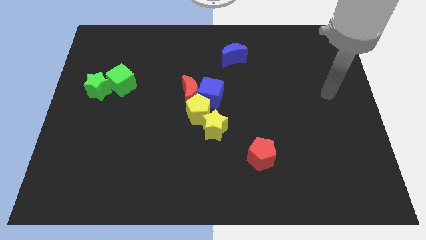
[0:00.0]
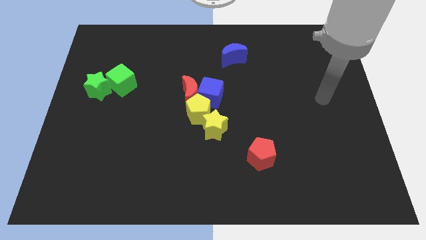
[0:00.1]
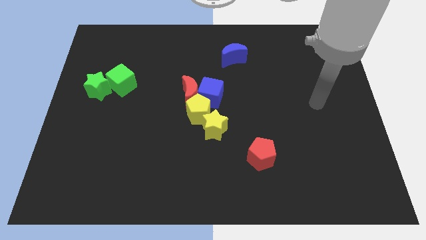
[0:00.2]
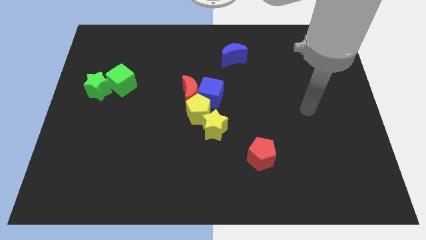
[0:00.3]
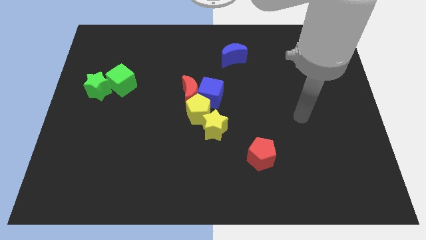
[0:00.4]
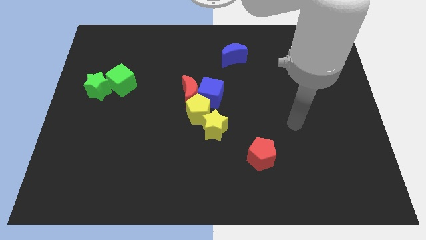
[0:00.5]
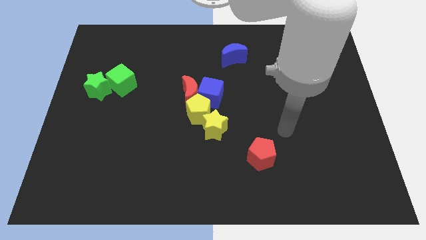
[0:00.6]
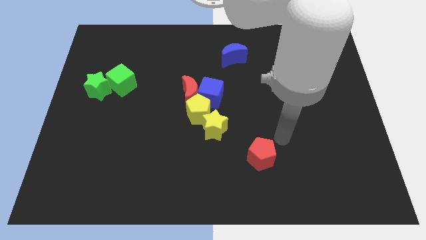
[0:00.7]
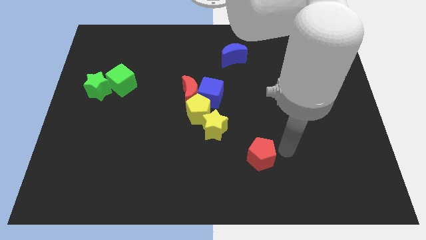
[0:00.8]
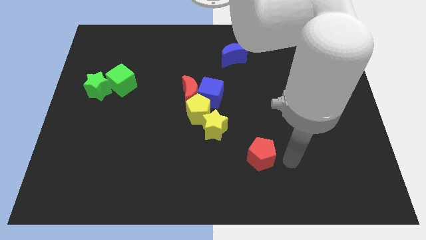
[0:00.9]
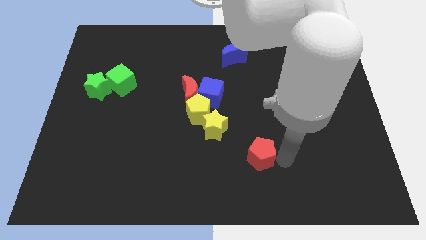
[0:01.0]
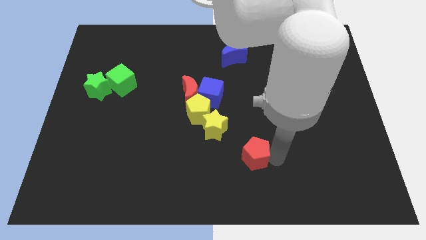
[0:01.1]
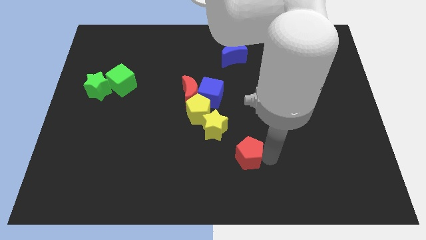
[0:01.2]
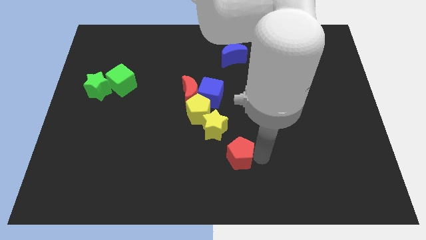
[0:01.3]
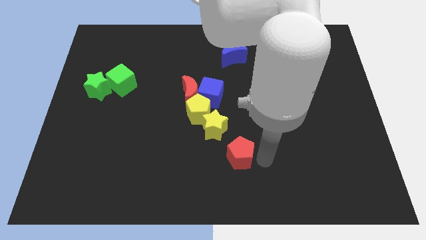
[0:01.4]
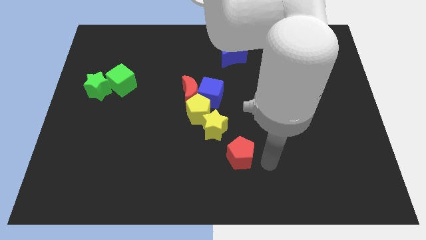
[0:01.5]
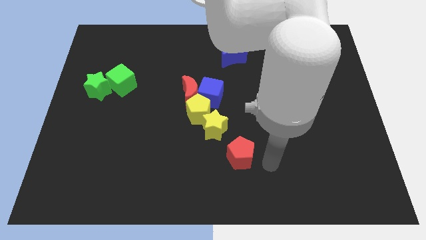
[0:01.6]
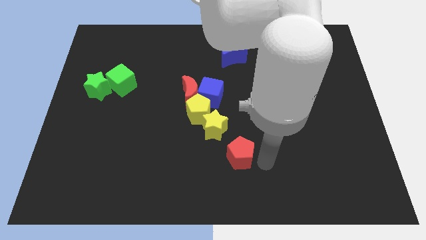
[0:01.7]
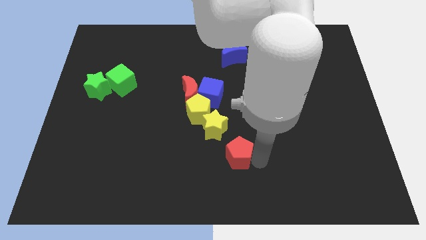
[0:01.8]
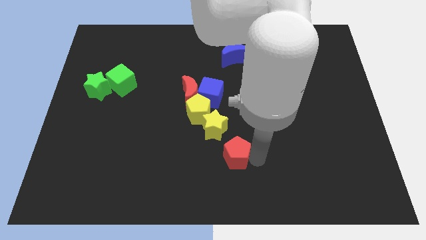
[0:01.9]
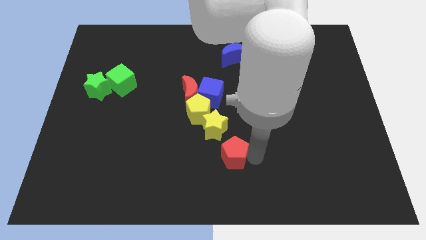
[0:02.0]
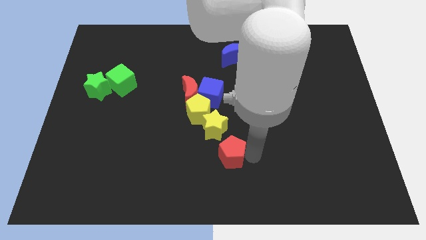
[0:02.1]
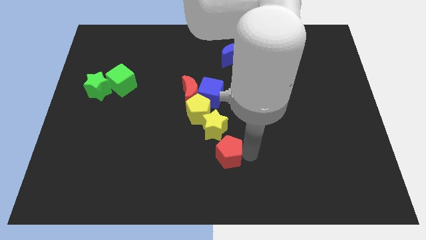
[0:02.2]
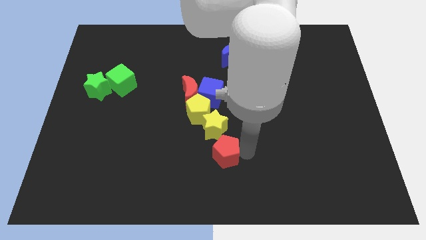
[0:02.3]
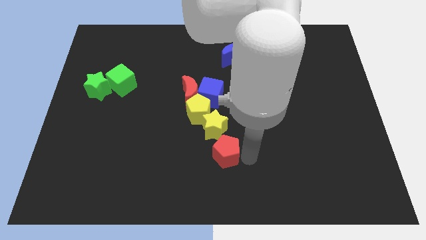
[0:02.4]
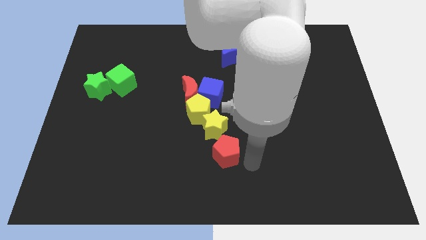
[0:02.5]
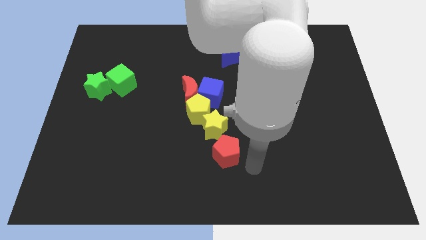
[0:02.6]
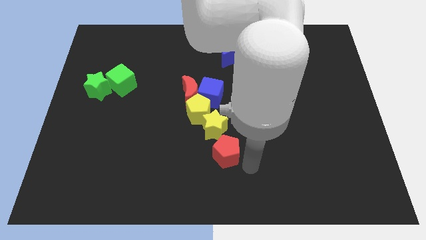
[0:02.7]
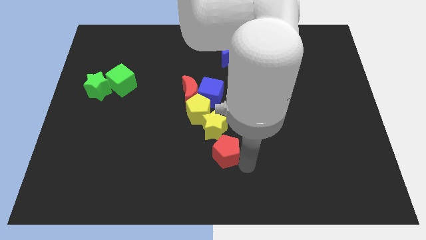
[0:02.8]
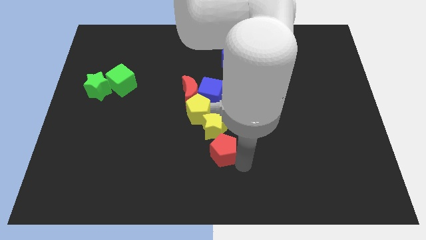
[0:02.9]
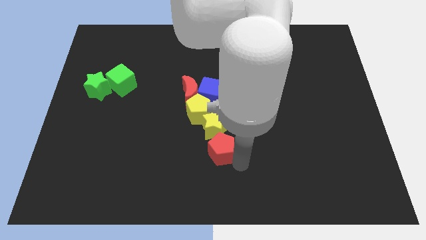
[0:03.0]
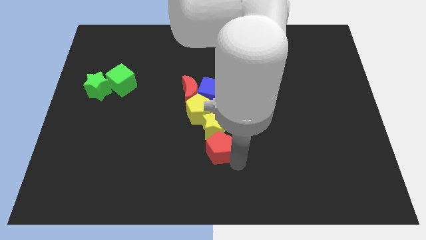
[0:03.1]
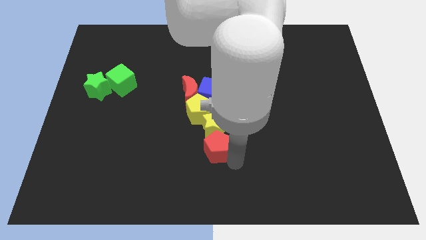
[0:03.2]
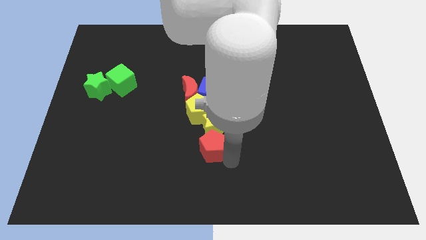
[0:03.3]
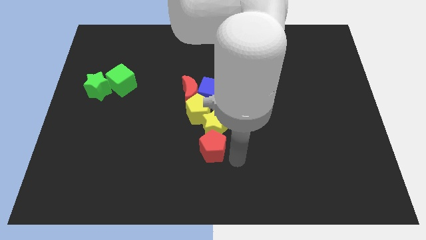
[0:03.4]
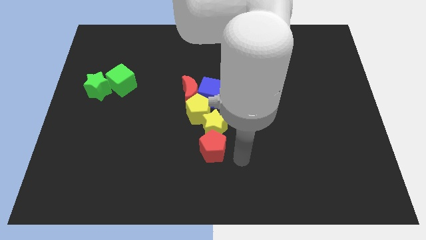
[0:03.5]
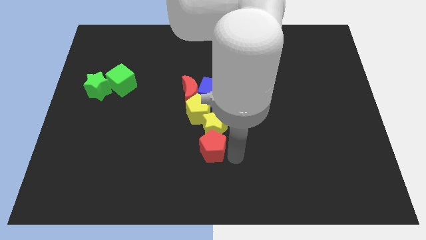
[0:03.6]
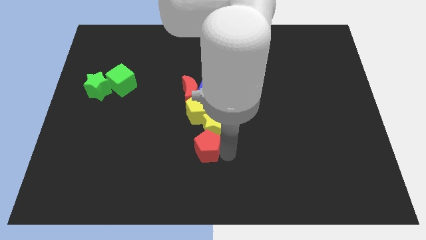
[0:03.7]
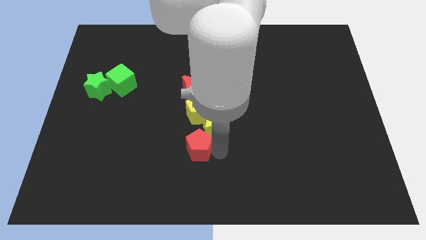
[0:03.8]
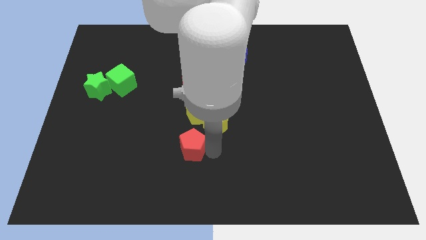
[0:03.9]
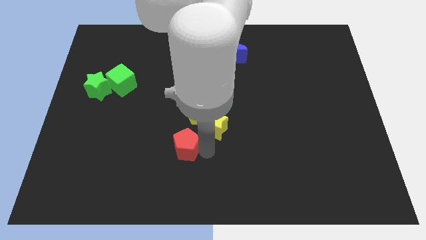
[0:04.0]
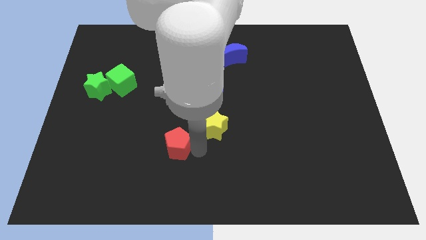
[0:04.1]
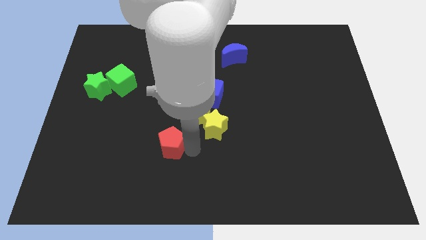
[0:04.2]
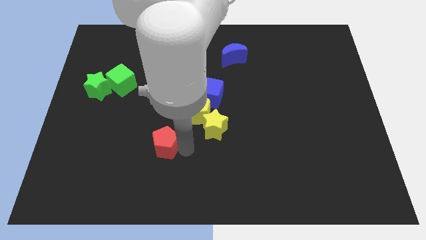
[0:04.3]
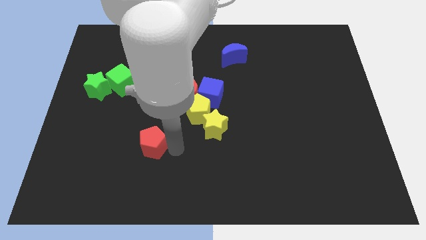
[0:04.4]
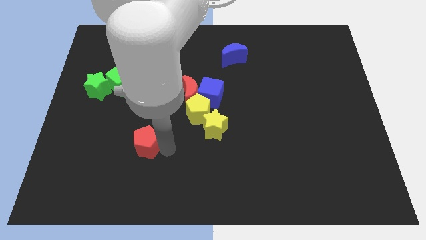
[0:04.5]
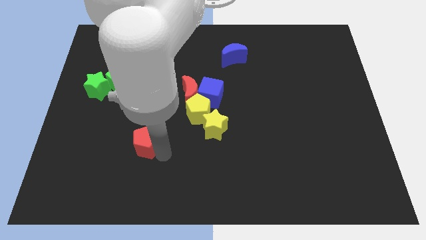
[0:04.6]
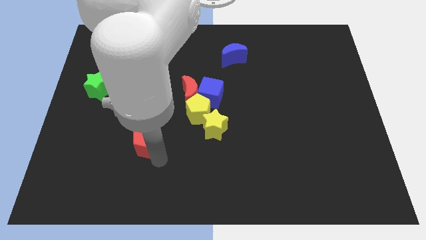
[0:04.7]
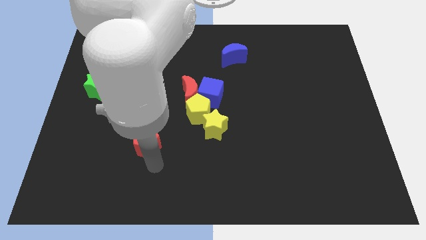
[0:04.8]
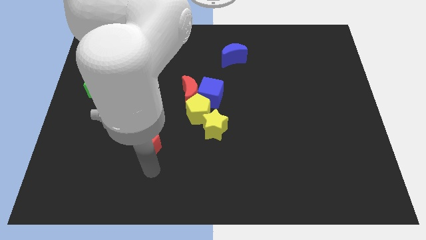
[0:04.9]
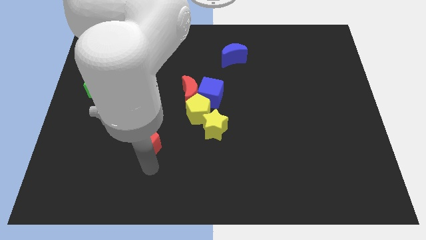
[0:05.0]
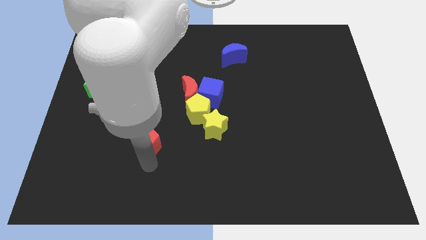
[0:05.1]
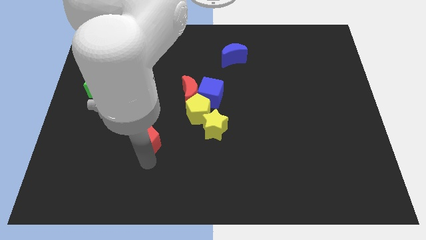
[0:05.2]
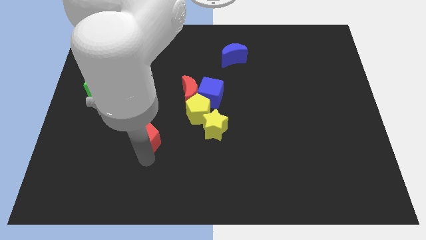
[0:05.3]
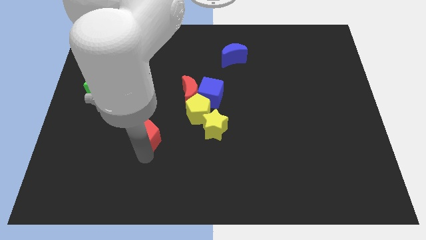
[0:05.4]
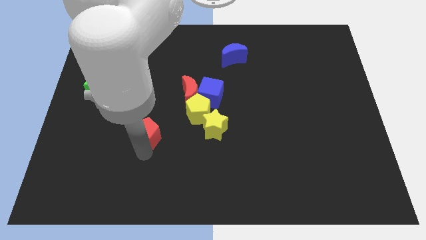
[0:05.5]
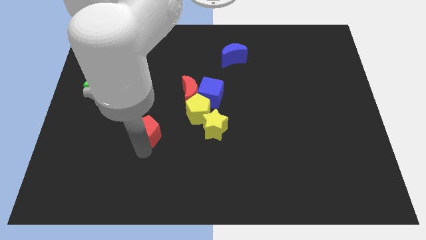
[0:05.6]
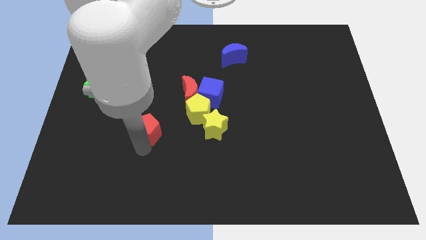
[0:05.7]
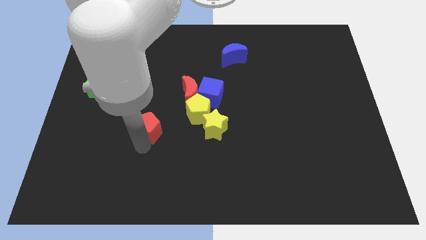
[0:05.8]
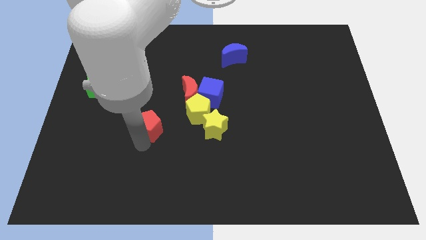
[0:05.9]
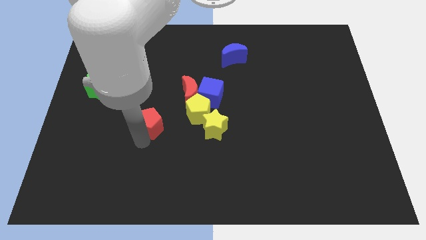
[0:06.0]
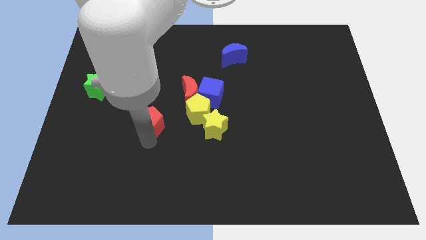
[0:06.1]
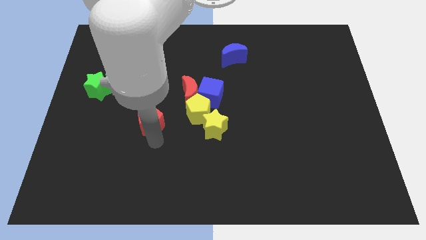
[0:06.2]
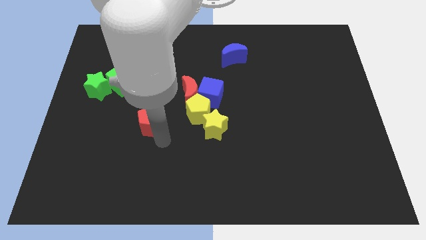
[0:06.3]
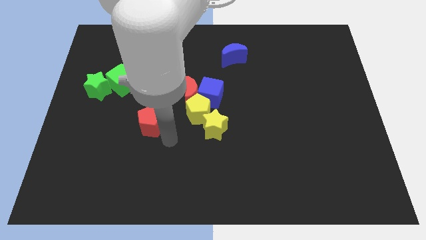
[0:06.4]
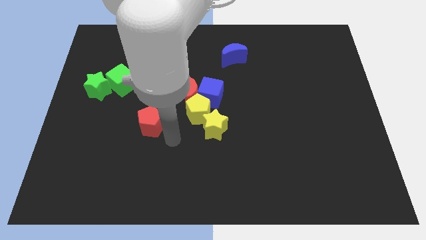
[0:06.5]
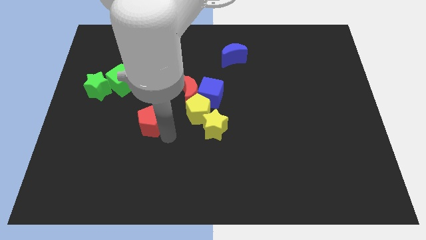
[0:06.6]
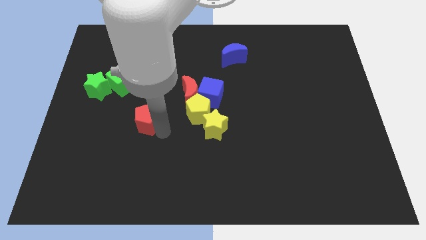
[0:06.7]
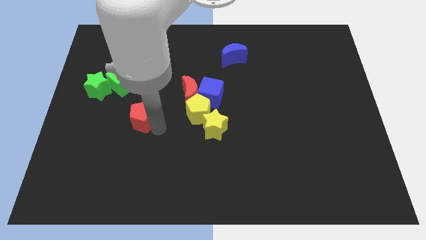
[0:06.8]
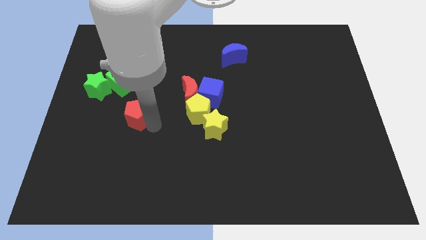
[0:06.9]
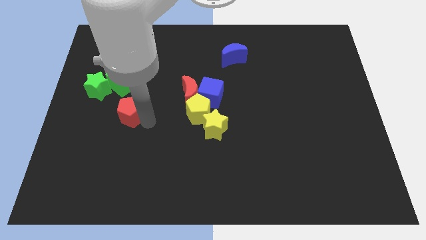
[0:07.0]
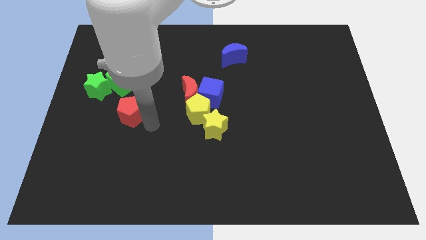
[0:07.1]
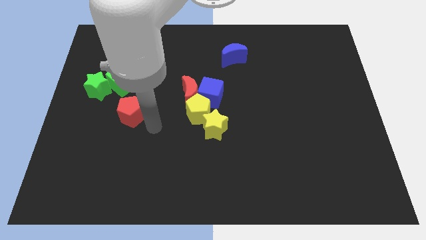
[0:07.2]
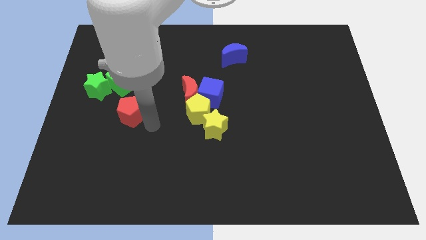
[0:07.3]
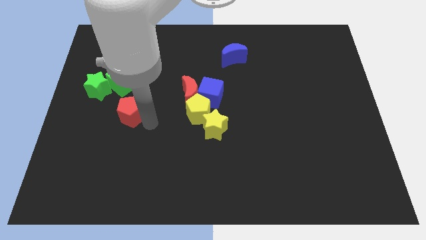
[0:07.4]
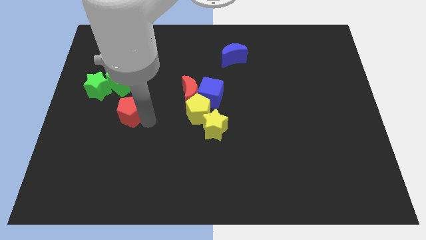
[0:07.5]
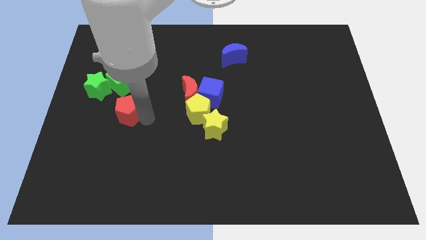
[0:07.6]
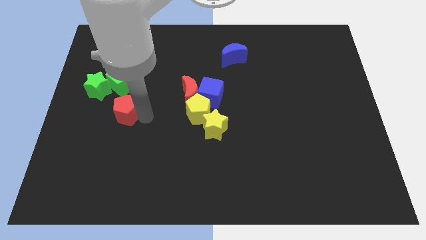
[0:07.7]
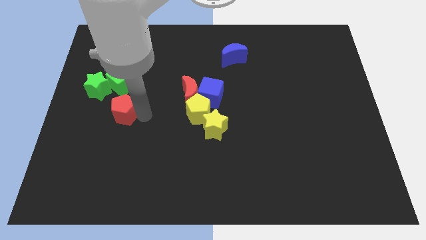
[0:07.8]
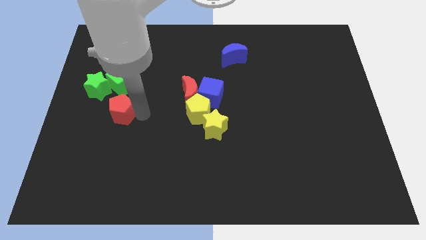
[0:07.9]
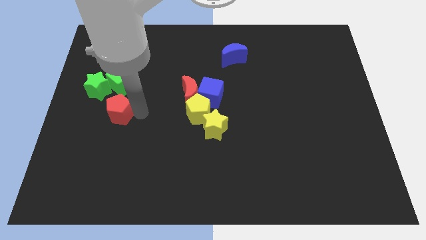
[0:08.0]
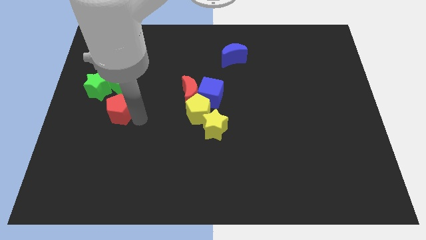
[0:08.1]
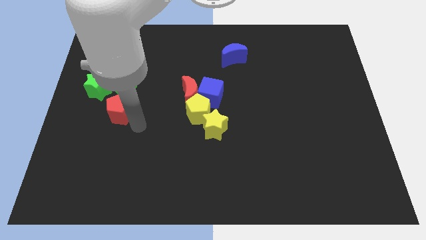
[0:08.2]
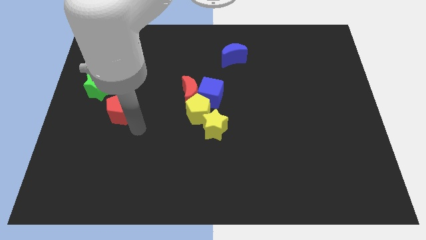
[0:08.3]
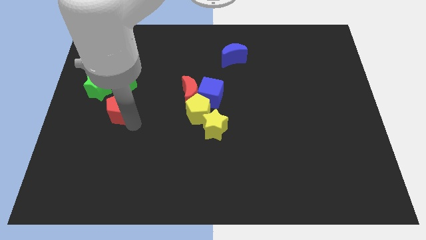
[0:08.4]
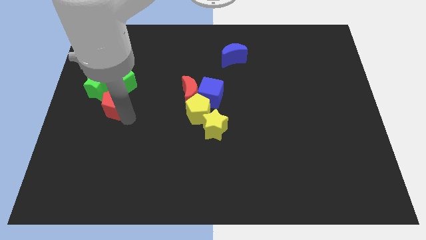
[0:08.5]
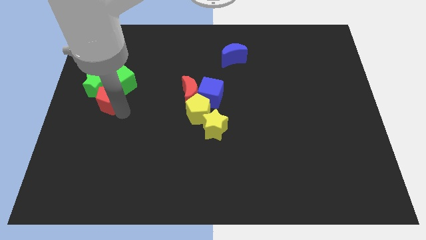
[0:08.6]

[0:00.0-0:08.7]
slide the red pentagon to the green star
